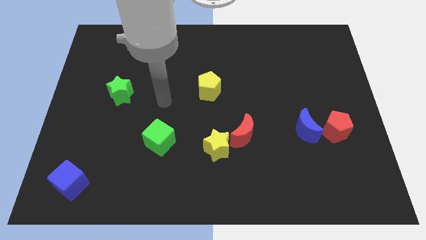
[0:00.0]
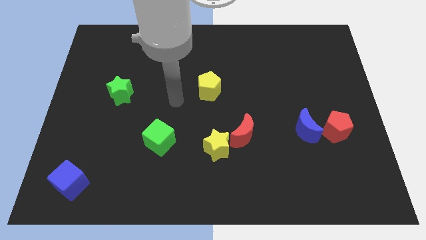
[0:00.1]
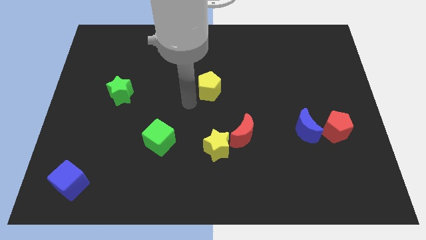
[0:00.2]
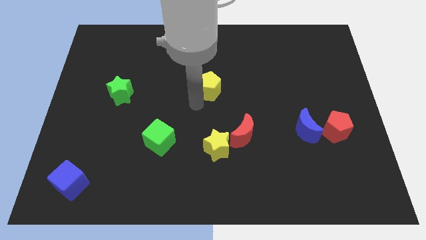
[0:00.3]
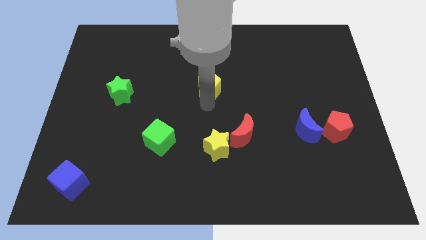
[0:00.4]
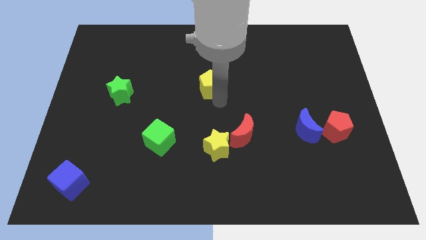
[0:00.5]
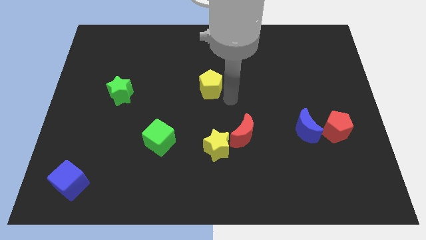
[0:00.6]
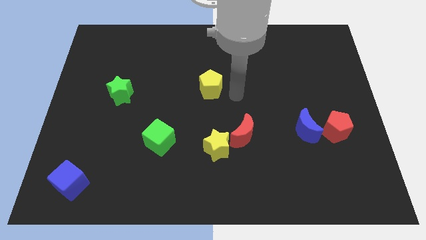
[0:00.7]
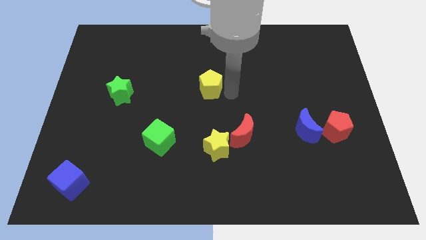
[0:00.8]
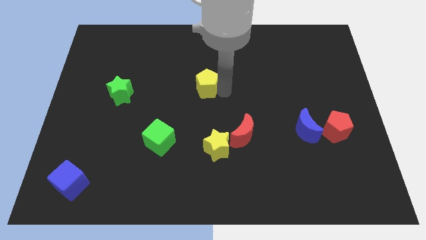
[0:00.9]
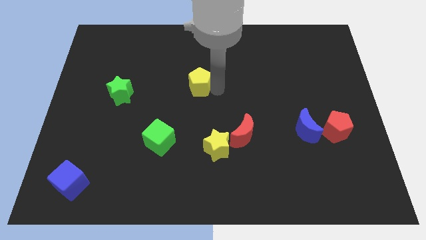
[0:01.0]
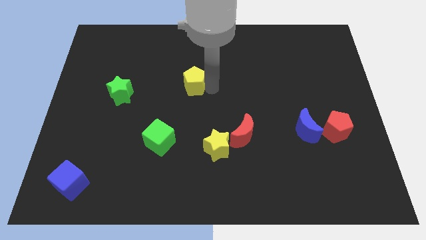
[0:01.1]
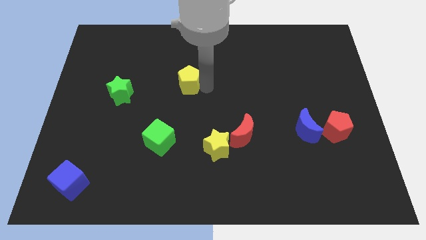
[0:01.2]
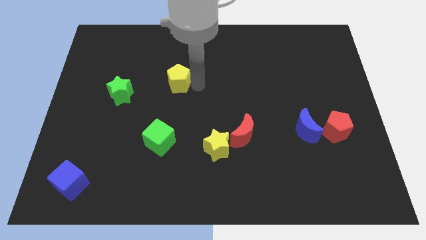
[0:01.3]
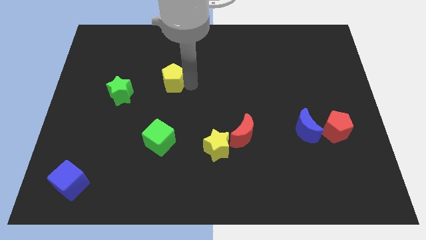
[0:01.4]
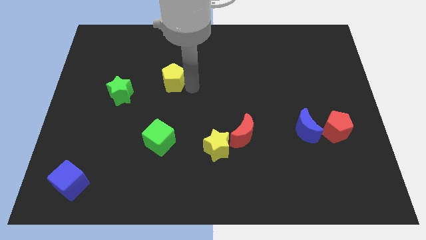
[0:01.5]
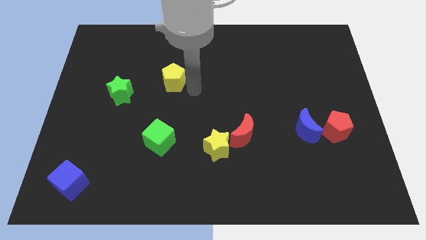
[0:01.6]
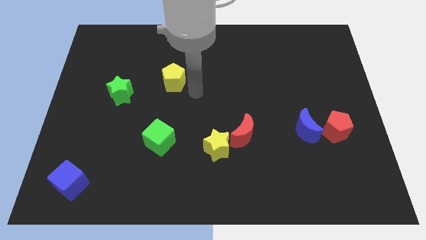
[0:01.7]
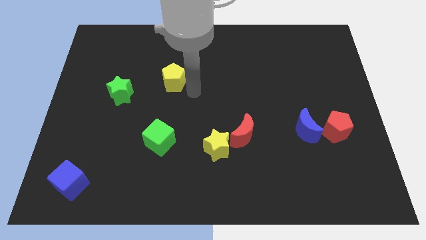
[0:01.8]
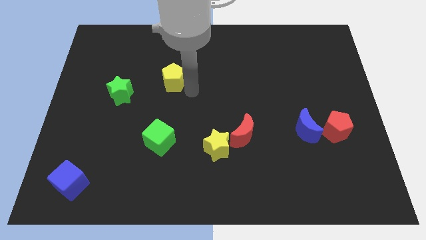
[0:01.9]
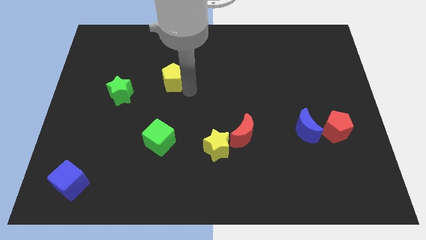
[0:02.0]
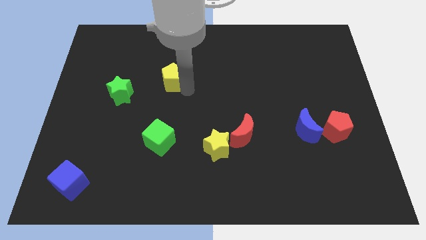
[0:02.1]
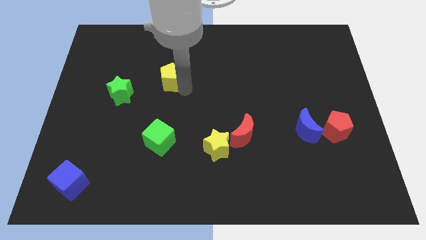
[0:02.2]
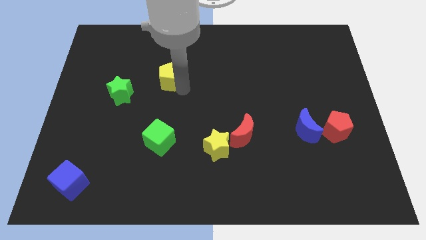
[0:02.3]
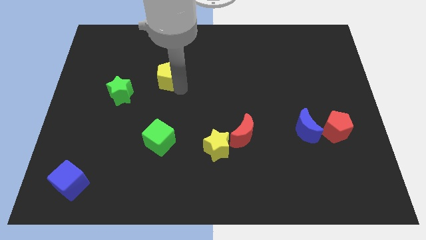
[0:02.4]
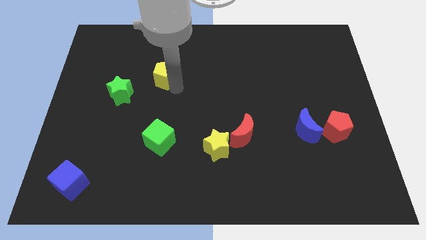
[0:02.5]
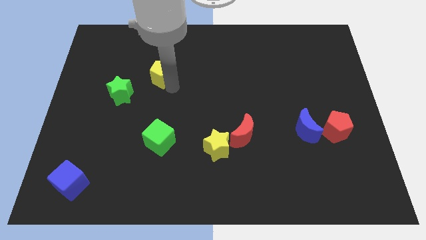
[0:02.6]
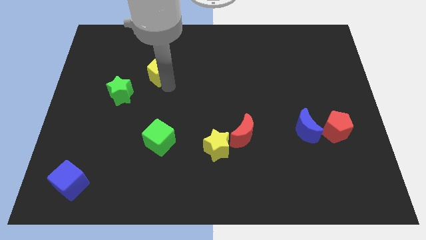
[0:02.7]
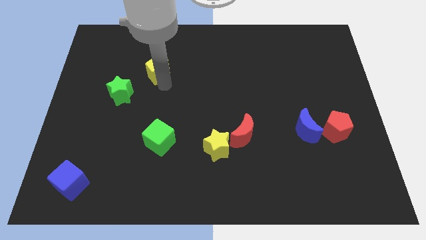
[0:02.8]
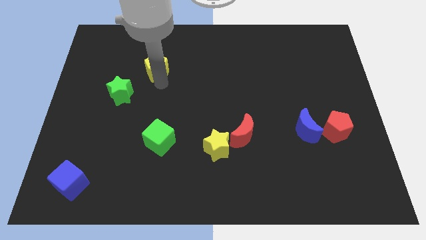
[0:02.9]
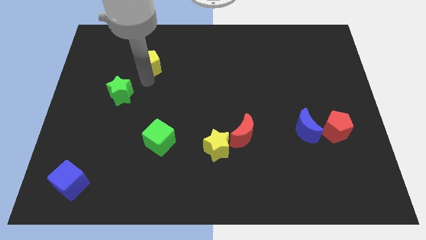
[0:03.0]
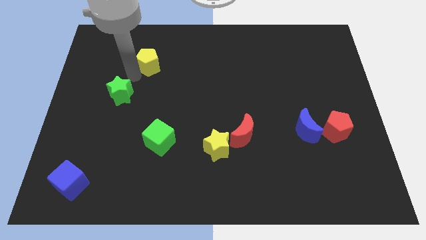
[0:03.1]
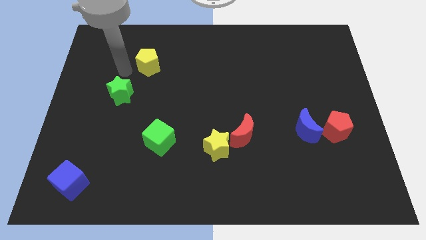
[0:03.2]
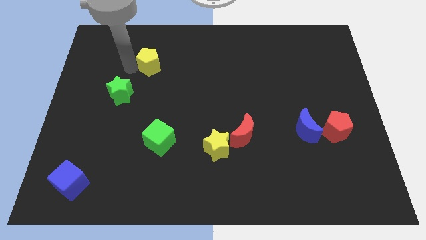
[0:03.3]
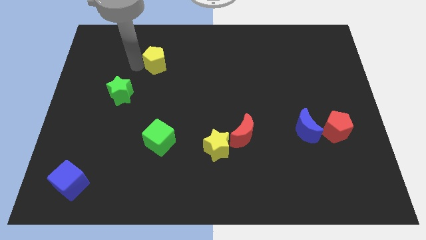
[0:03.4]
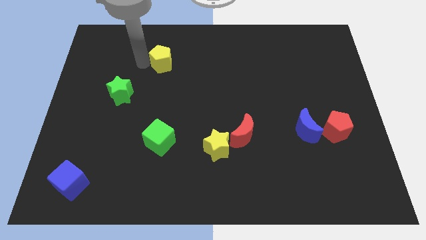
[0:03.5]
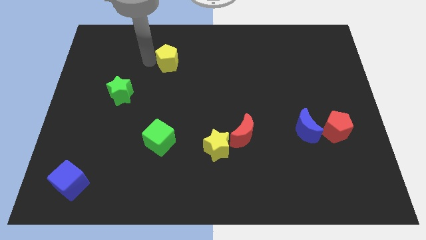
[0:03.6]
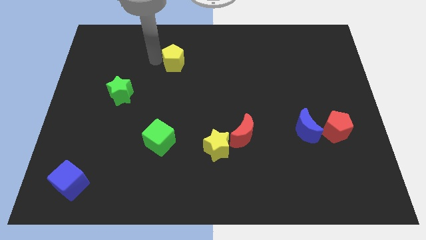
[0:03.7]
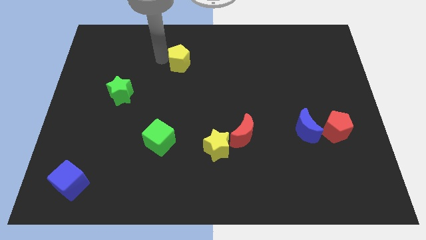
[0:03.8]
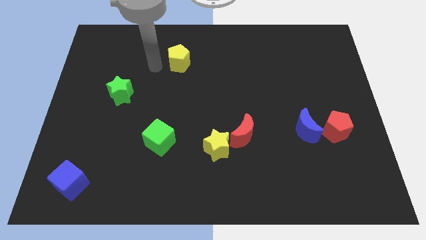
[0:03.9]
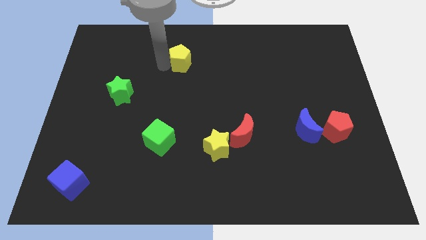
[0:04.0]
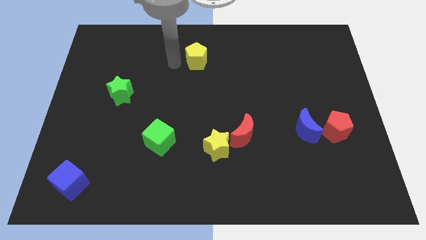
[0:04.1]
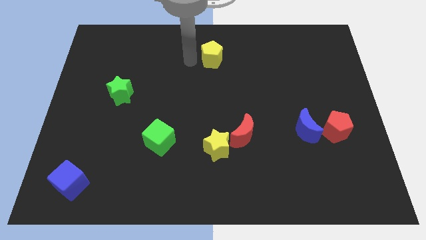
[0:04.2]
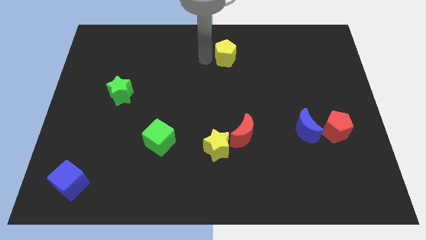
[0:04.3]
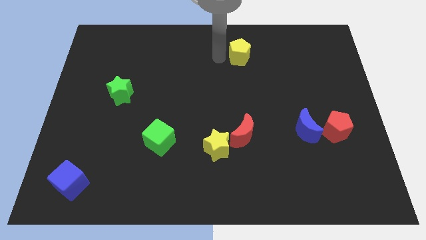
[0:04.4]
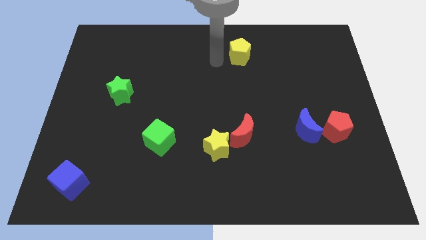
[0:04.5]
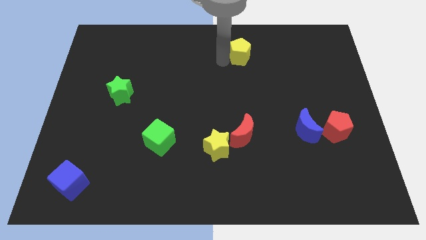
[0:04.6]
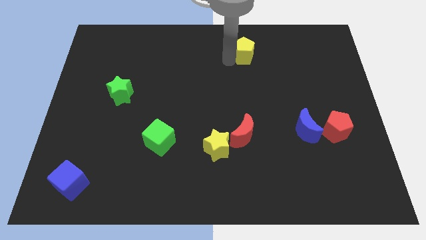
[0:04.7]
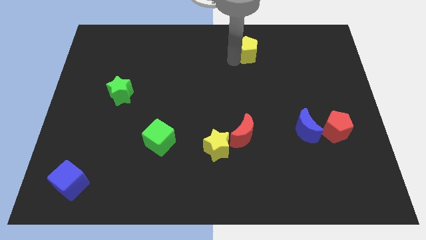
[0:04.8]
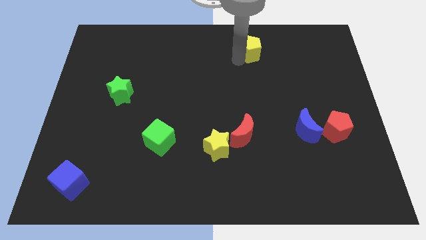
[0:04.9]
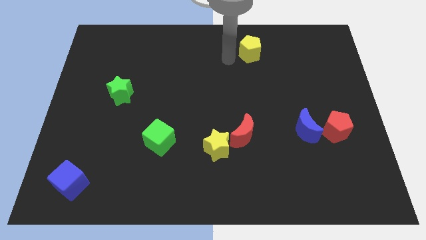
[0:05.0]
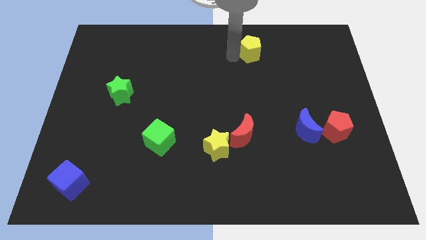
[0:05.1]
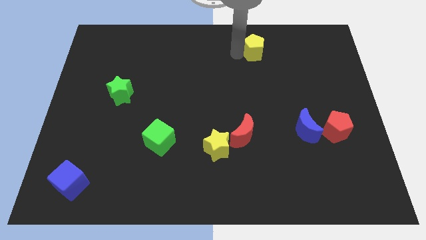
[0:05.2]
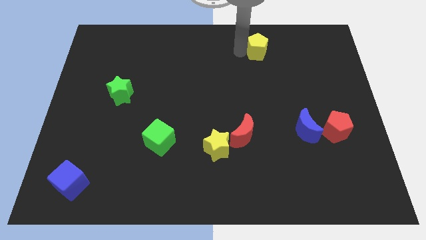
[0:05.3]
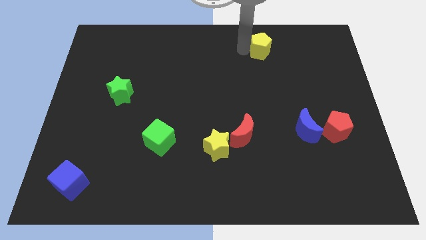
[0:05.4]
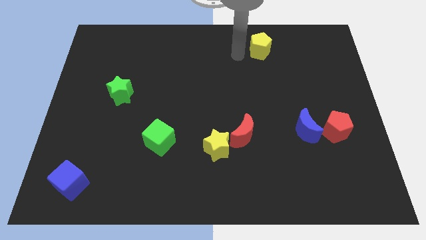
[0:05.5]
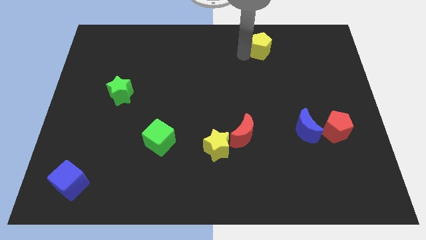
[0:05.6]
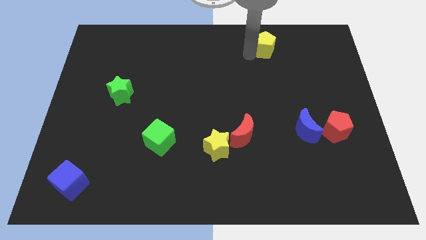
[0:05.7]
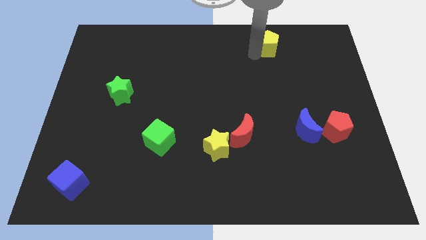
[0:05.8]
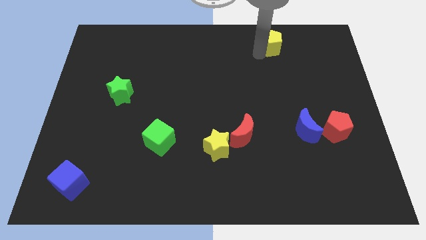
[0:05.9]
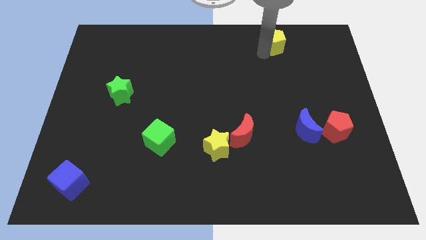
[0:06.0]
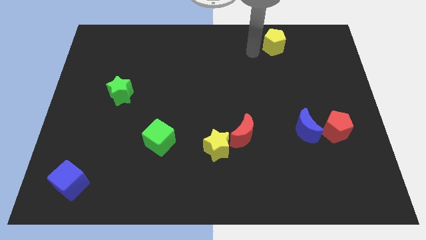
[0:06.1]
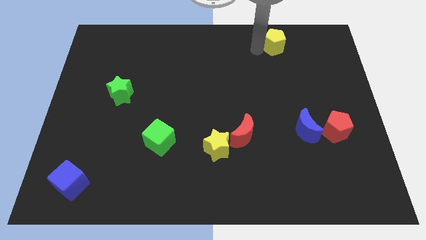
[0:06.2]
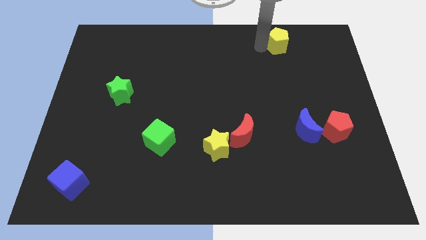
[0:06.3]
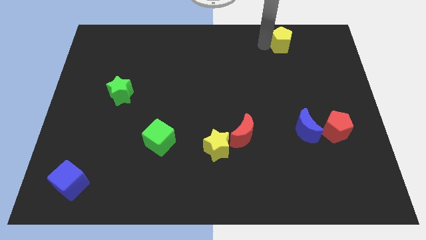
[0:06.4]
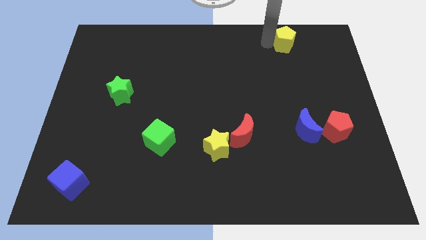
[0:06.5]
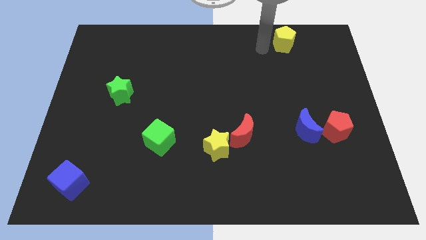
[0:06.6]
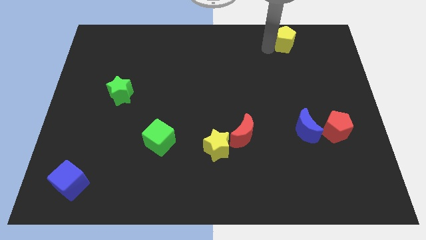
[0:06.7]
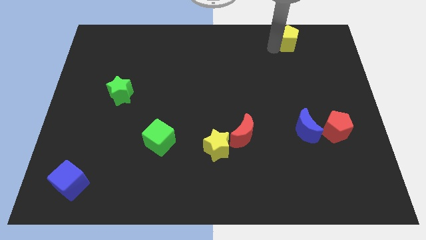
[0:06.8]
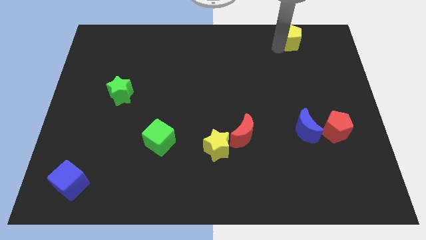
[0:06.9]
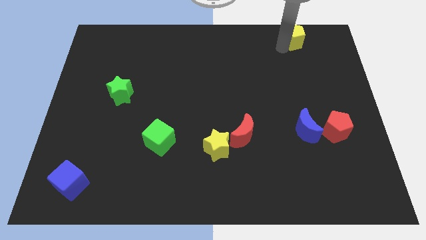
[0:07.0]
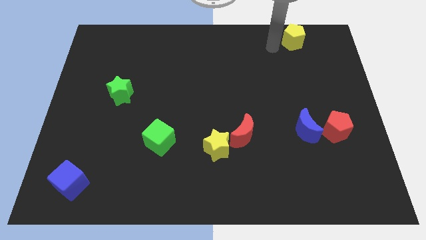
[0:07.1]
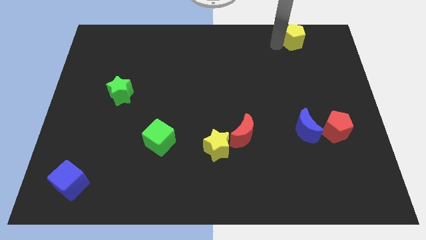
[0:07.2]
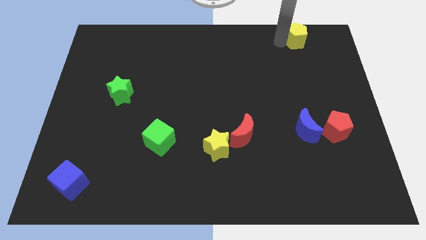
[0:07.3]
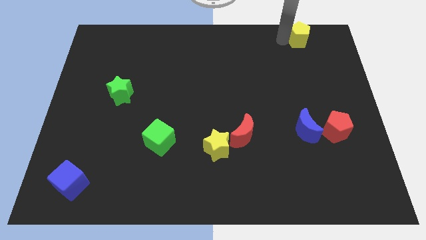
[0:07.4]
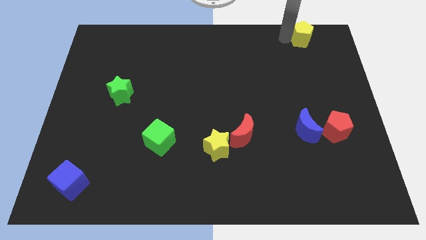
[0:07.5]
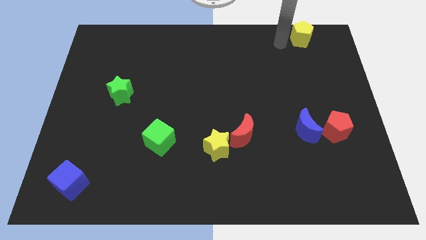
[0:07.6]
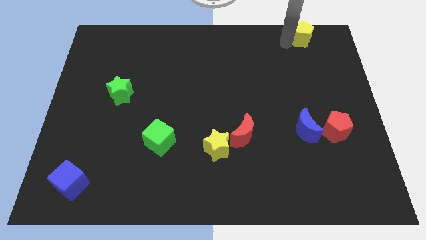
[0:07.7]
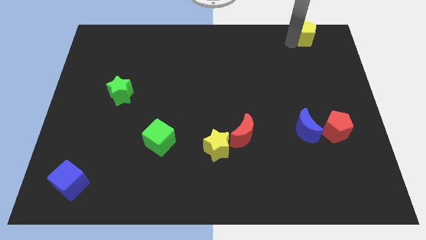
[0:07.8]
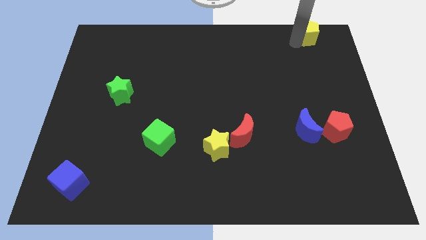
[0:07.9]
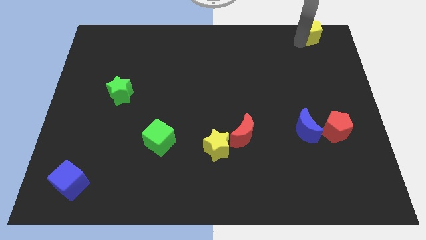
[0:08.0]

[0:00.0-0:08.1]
move the yellow pentagon to the upper right corner
